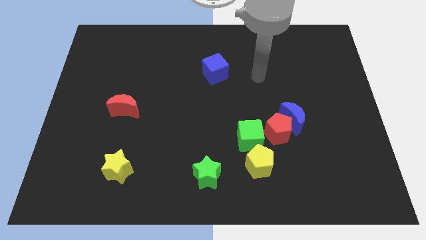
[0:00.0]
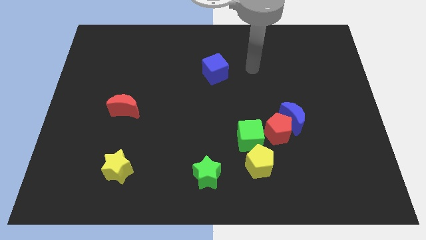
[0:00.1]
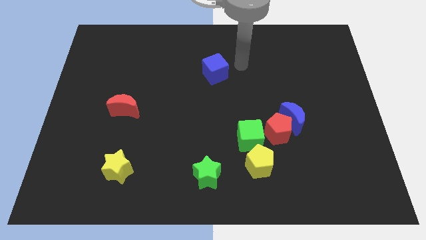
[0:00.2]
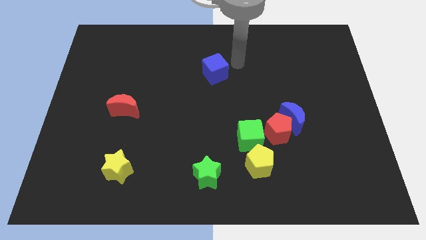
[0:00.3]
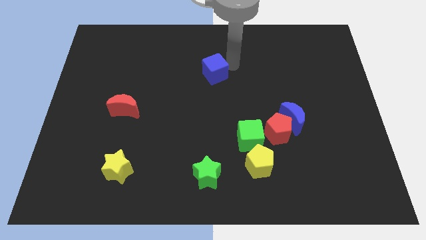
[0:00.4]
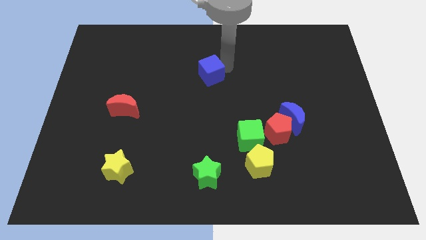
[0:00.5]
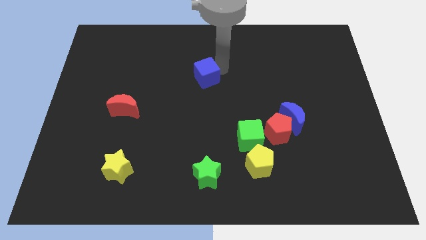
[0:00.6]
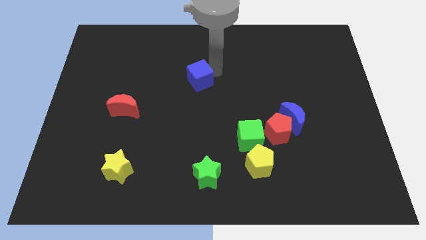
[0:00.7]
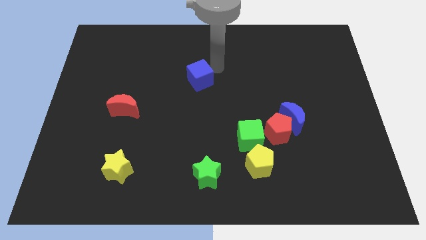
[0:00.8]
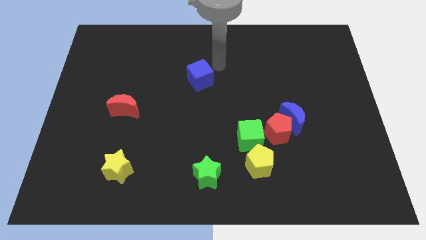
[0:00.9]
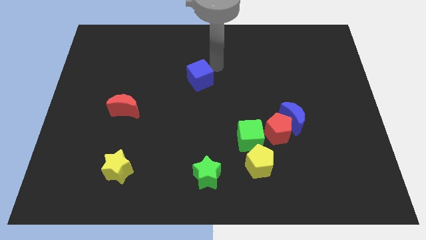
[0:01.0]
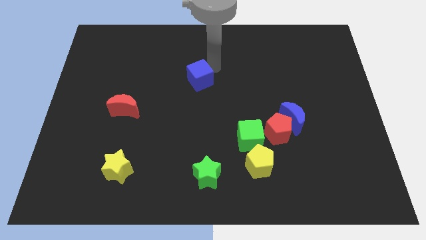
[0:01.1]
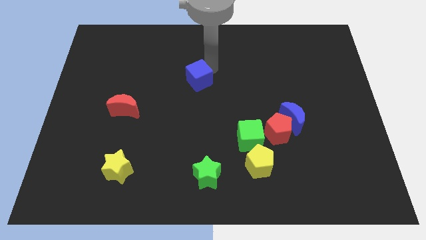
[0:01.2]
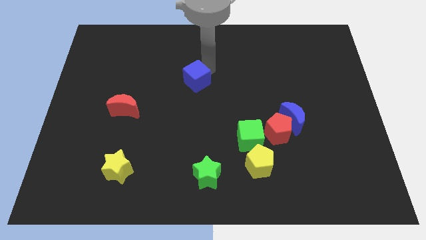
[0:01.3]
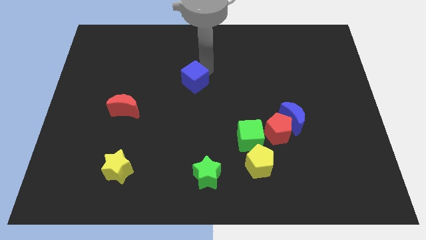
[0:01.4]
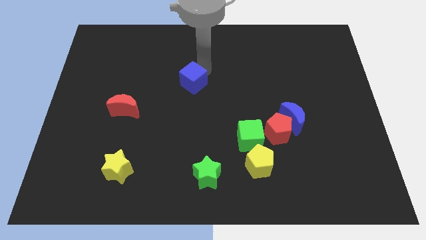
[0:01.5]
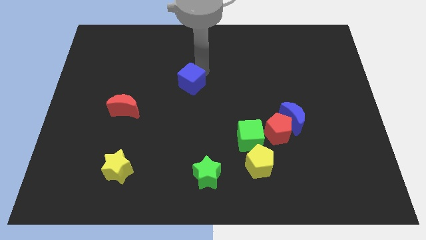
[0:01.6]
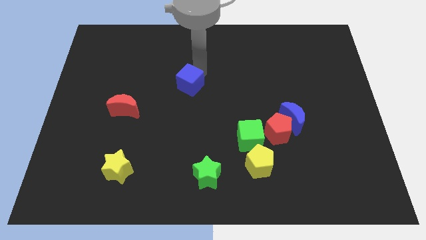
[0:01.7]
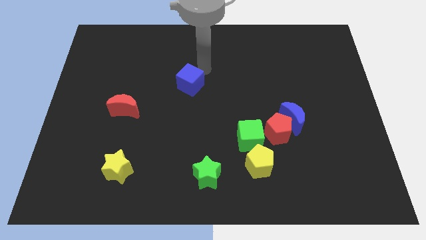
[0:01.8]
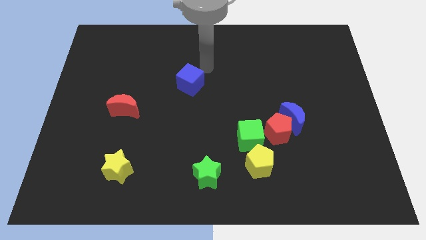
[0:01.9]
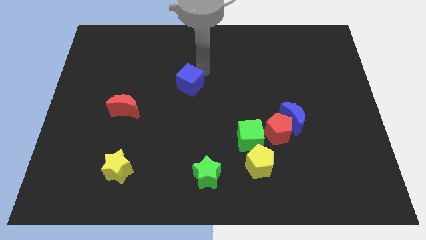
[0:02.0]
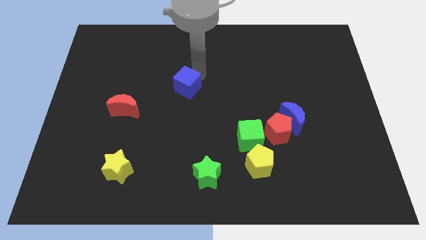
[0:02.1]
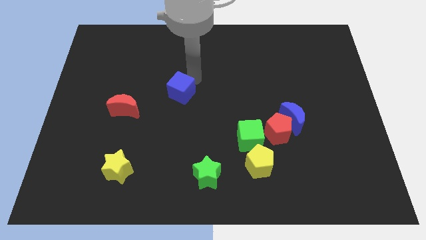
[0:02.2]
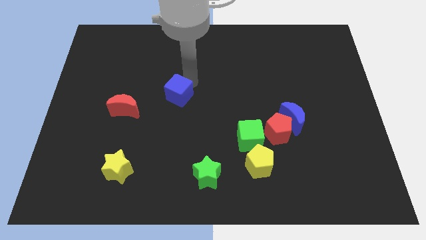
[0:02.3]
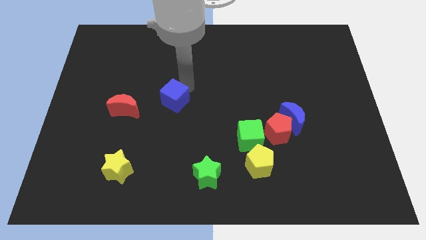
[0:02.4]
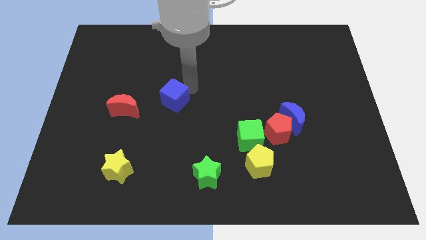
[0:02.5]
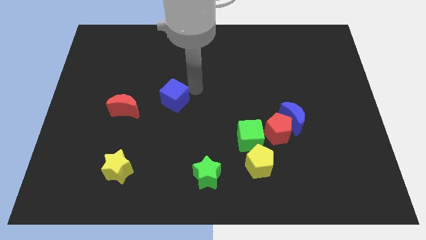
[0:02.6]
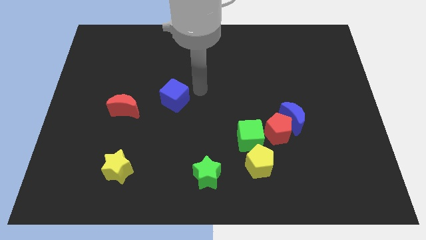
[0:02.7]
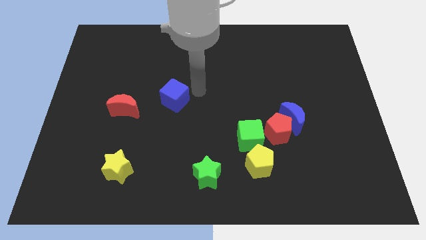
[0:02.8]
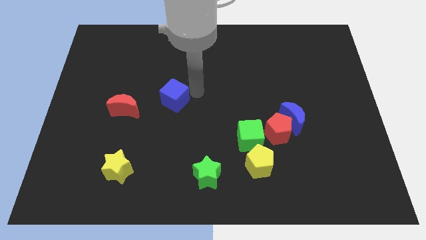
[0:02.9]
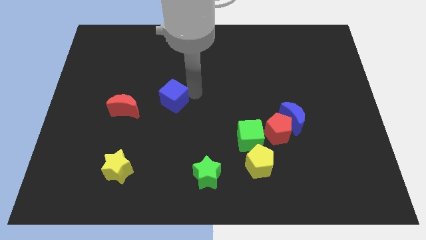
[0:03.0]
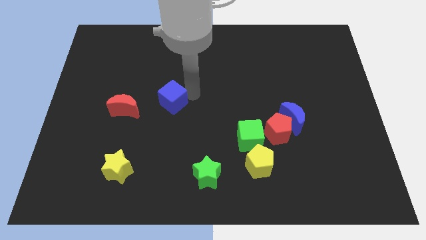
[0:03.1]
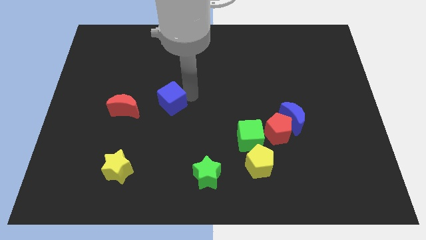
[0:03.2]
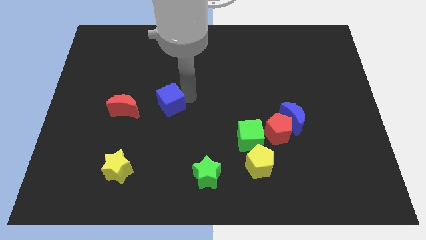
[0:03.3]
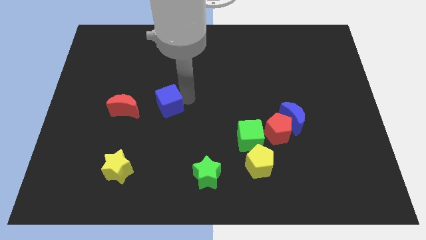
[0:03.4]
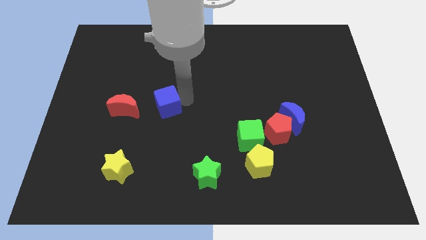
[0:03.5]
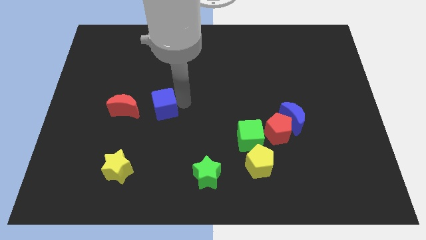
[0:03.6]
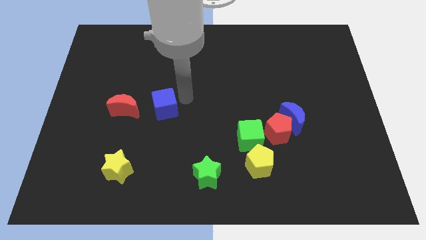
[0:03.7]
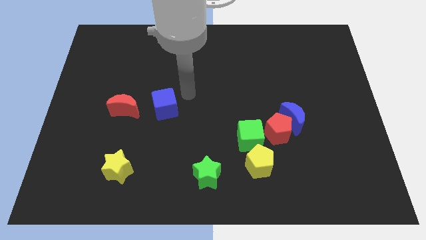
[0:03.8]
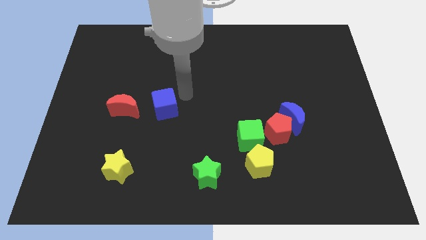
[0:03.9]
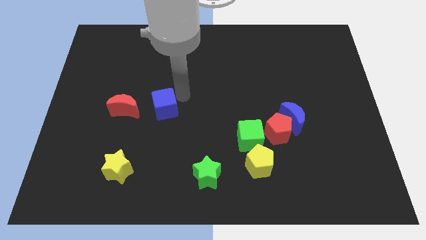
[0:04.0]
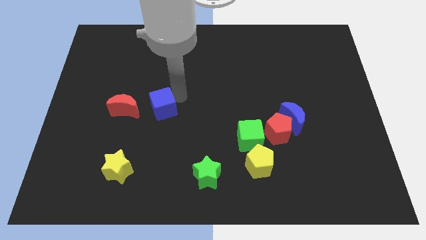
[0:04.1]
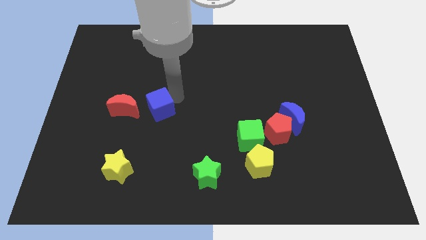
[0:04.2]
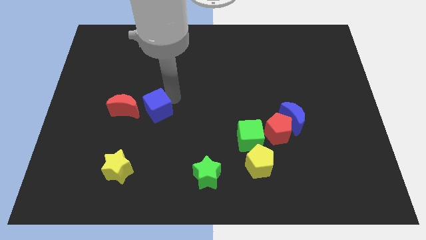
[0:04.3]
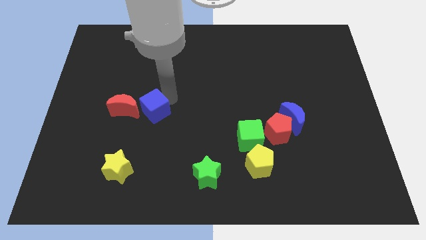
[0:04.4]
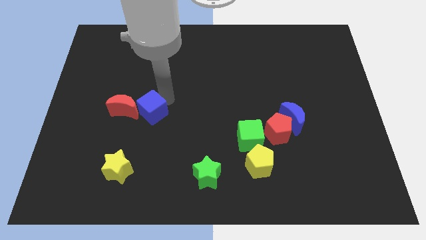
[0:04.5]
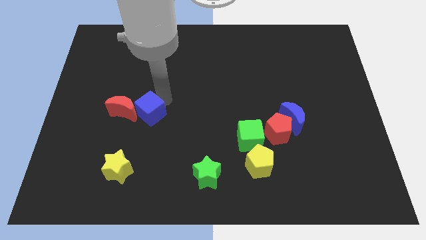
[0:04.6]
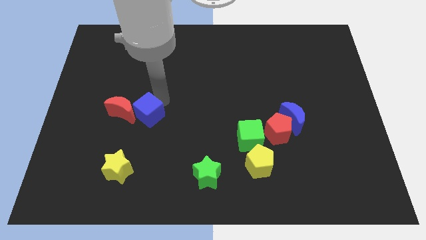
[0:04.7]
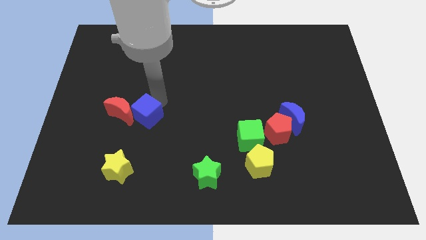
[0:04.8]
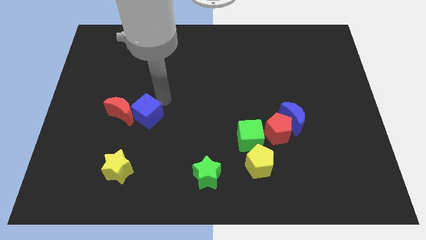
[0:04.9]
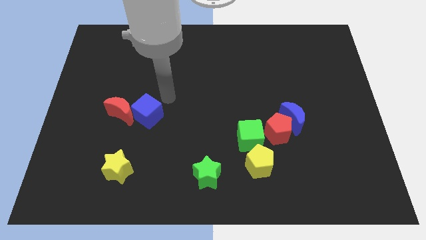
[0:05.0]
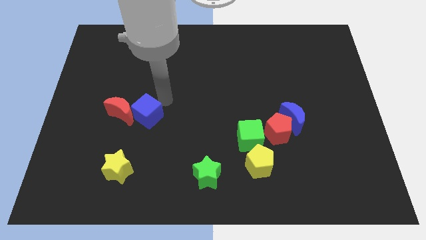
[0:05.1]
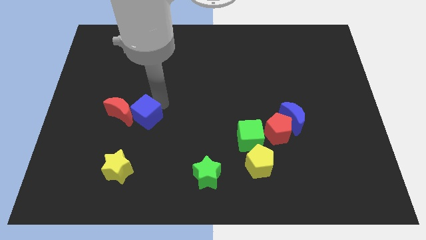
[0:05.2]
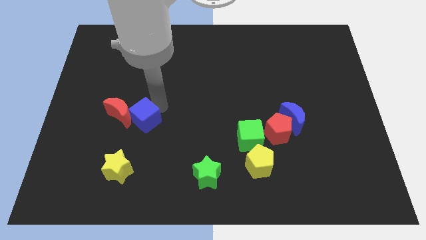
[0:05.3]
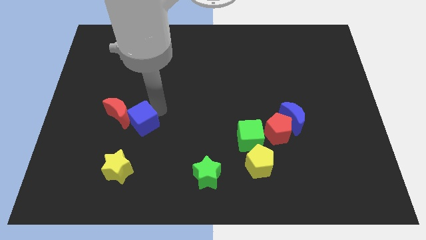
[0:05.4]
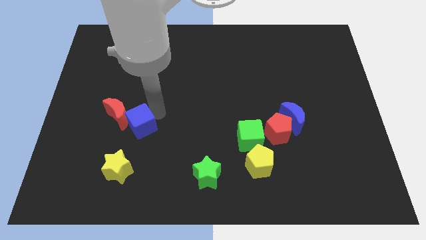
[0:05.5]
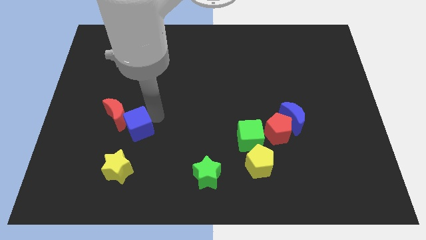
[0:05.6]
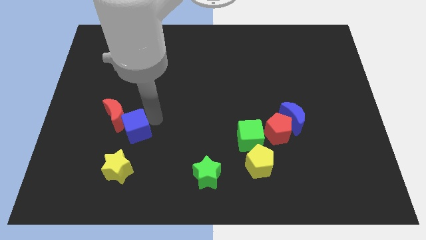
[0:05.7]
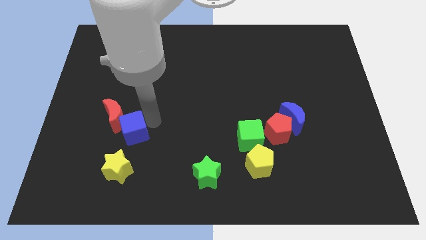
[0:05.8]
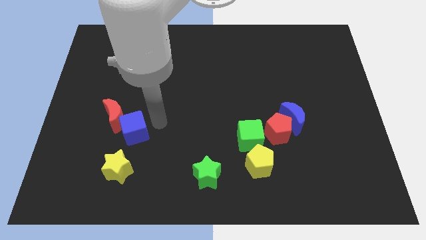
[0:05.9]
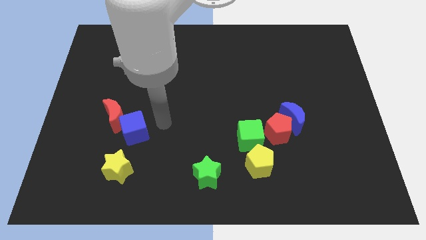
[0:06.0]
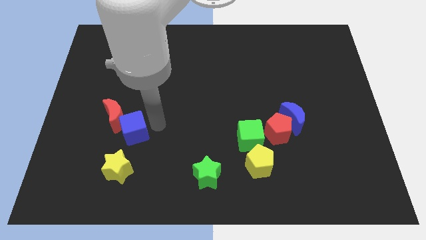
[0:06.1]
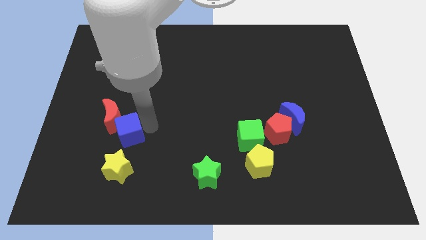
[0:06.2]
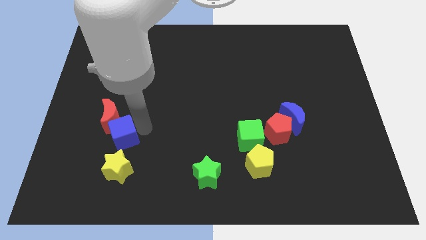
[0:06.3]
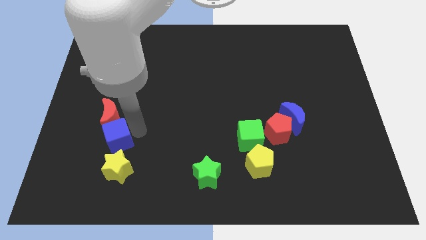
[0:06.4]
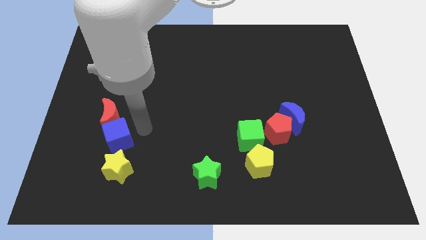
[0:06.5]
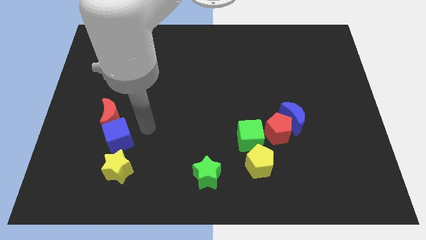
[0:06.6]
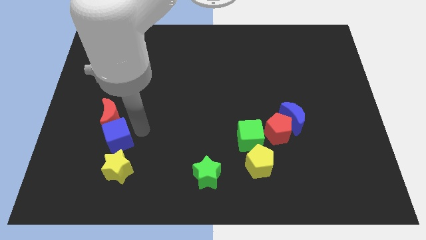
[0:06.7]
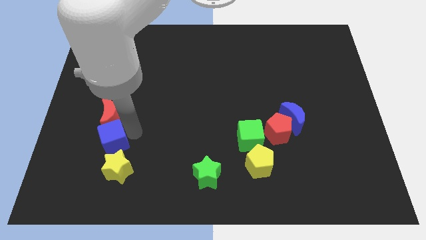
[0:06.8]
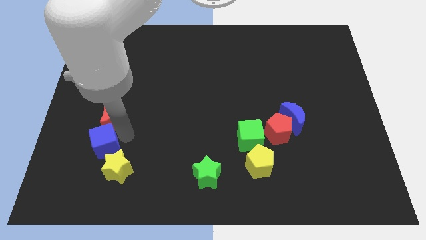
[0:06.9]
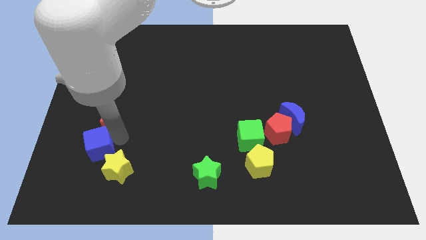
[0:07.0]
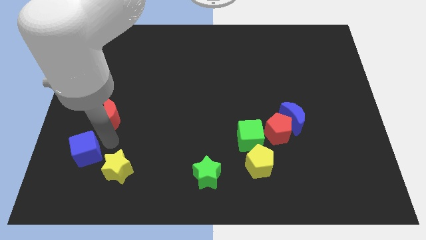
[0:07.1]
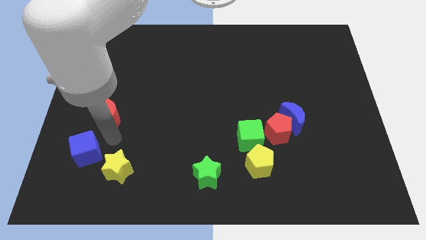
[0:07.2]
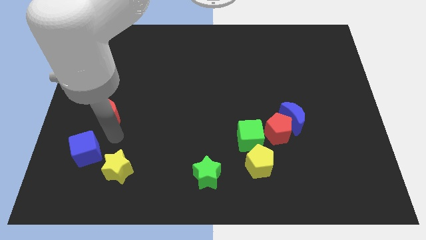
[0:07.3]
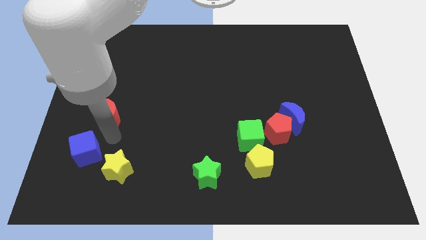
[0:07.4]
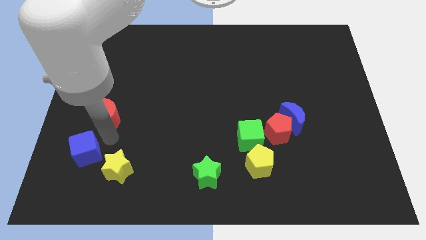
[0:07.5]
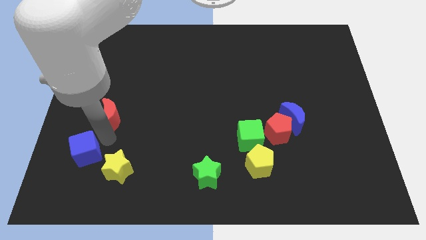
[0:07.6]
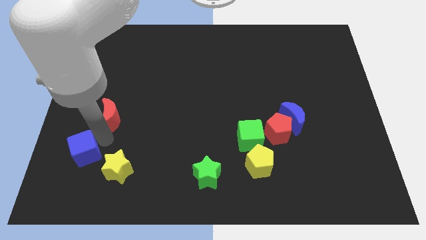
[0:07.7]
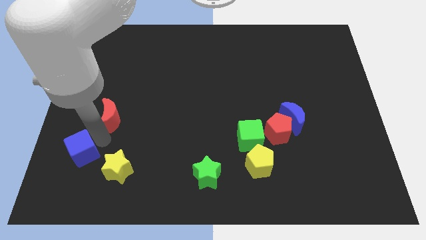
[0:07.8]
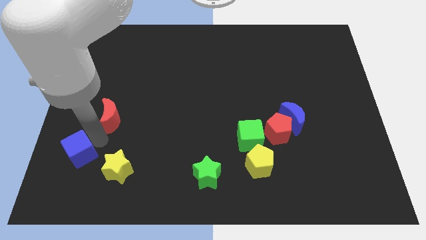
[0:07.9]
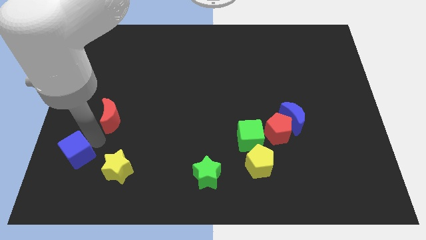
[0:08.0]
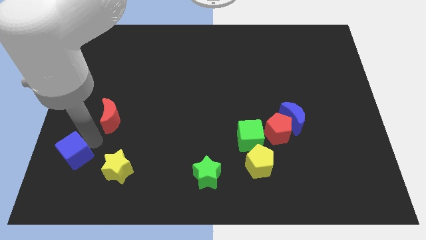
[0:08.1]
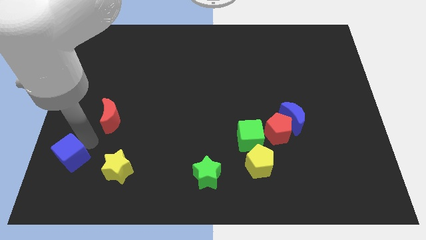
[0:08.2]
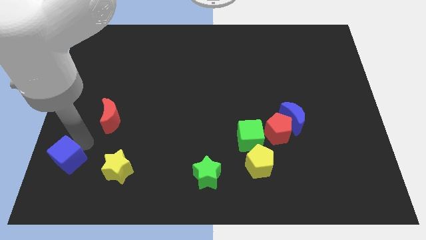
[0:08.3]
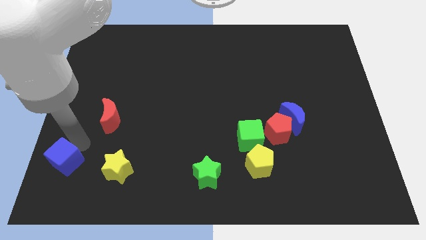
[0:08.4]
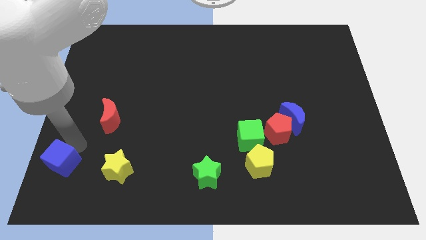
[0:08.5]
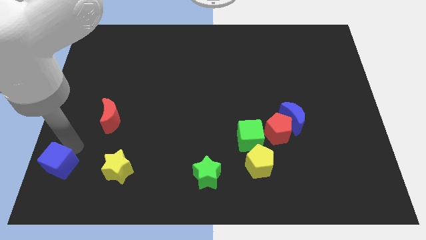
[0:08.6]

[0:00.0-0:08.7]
slide the blue cube to the bottom left of the board
